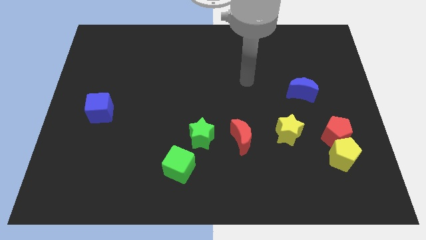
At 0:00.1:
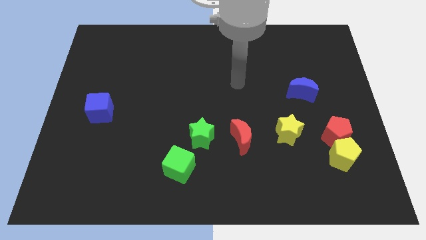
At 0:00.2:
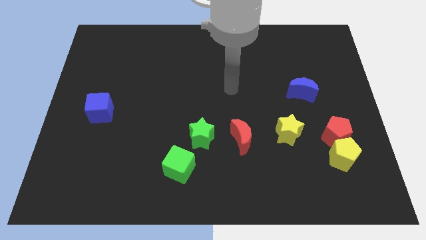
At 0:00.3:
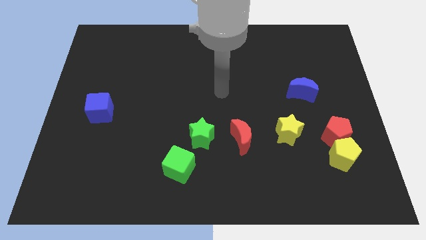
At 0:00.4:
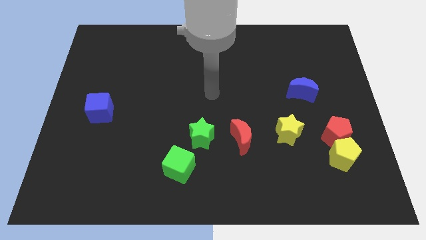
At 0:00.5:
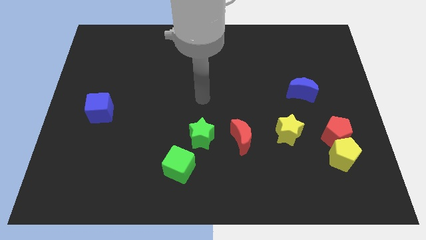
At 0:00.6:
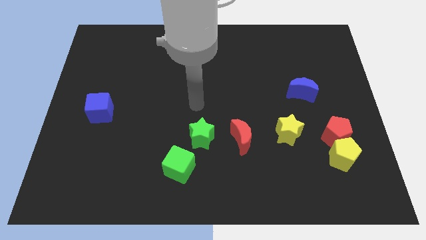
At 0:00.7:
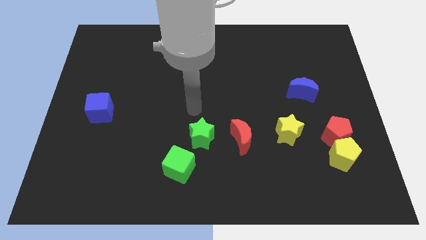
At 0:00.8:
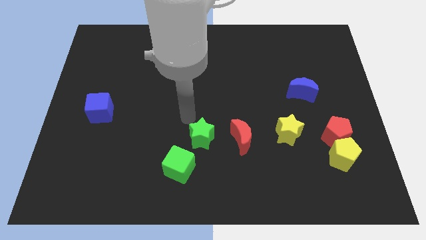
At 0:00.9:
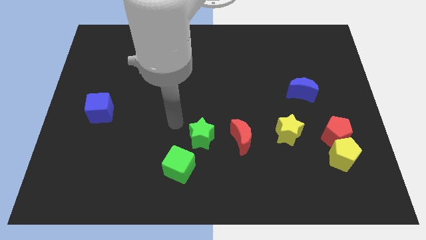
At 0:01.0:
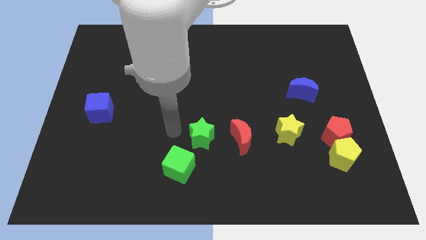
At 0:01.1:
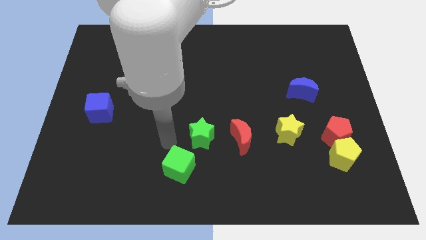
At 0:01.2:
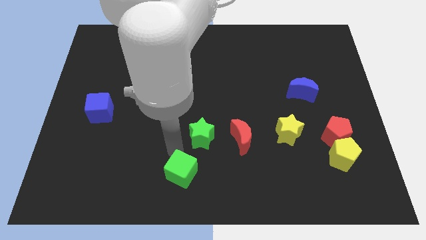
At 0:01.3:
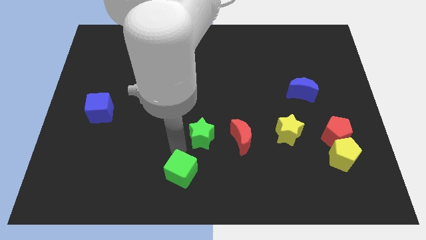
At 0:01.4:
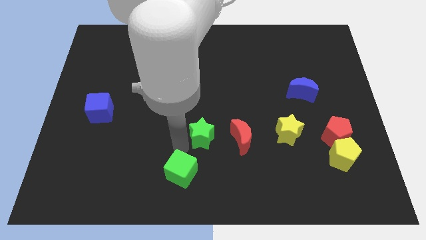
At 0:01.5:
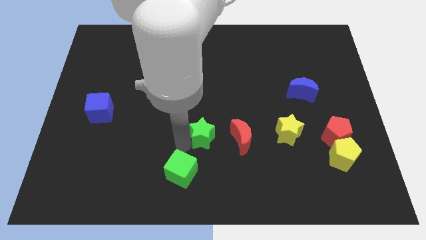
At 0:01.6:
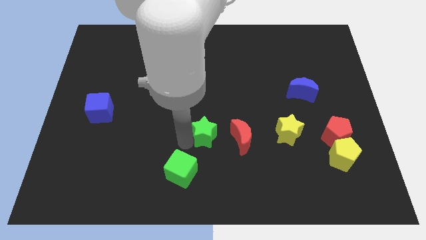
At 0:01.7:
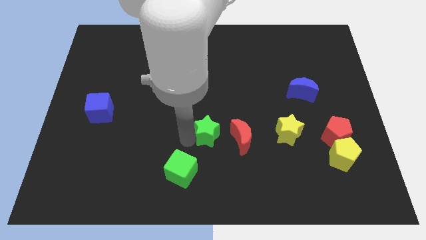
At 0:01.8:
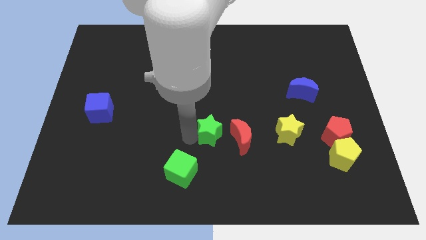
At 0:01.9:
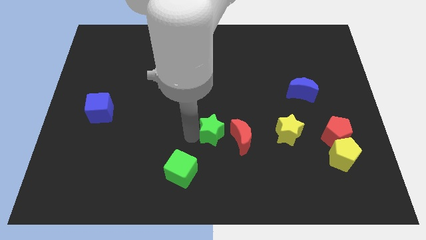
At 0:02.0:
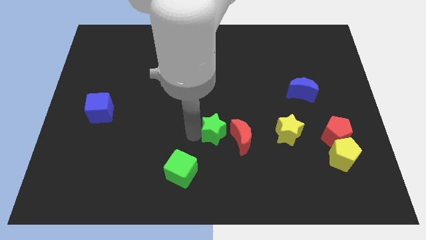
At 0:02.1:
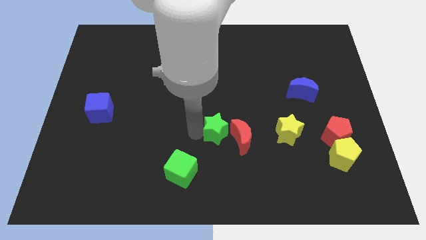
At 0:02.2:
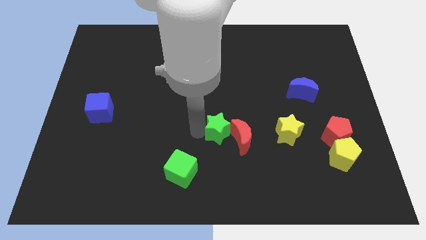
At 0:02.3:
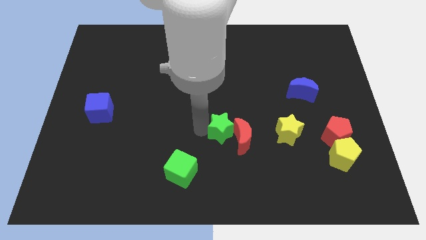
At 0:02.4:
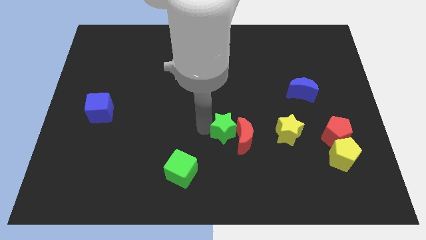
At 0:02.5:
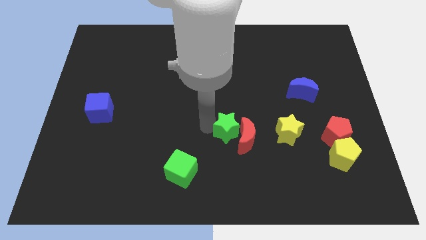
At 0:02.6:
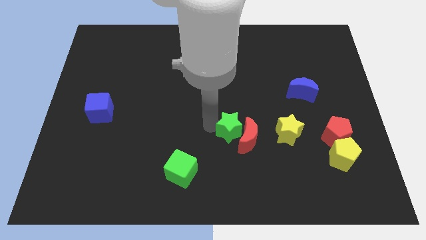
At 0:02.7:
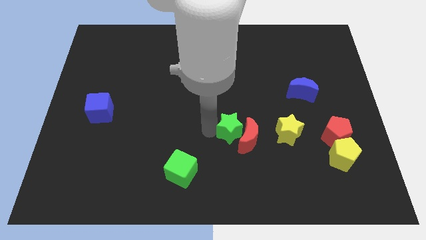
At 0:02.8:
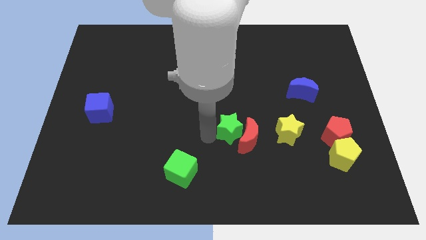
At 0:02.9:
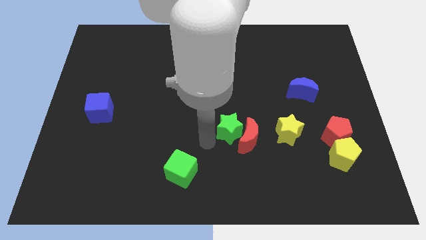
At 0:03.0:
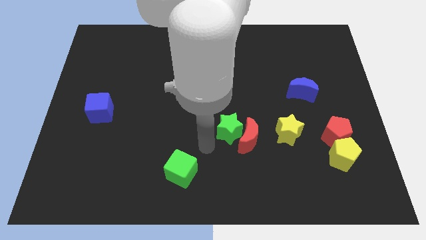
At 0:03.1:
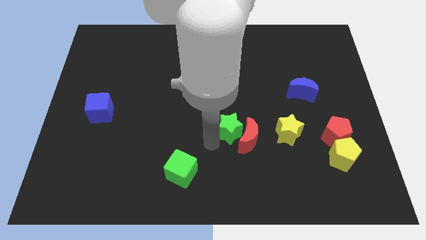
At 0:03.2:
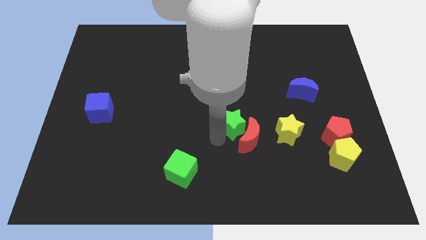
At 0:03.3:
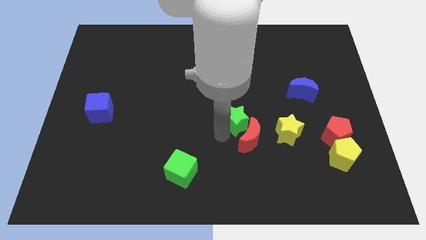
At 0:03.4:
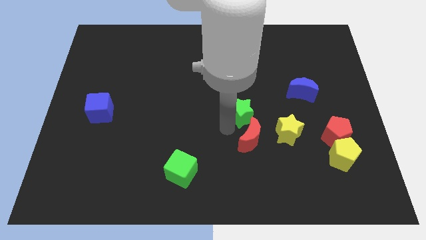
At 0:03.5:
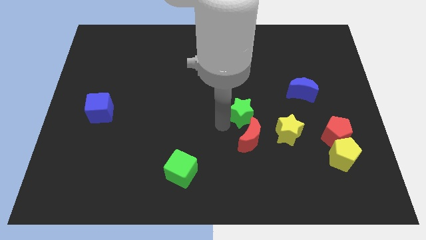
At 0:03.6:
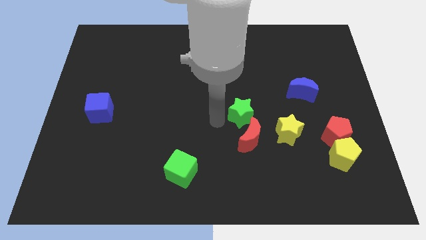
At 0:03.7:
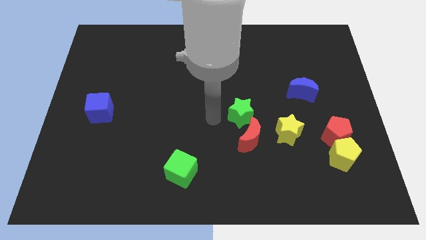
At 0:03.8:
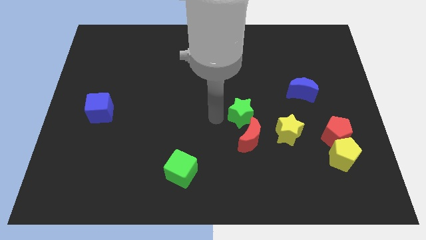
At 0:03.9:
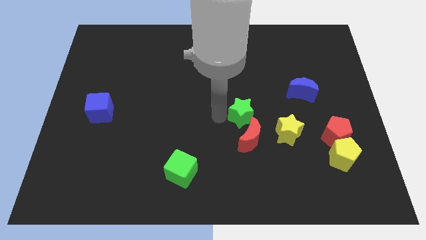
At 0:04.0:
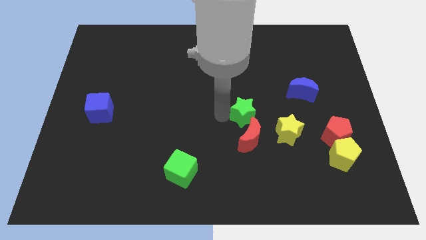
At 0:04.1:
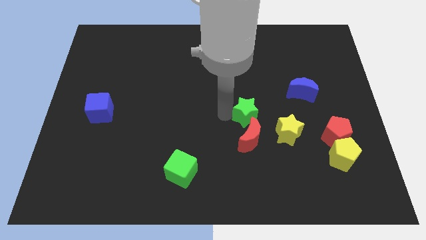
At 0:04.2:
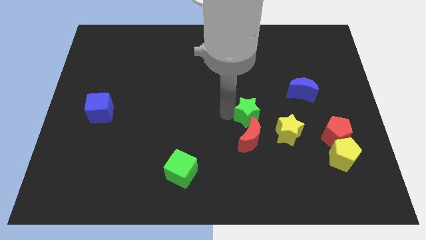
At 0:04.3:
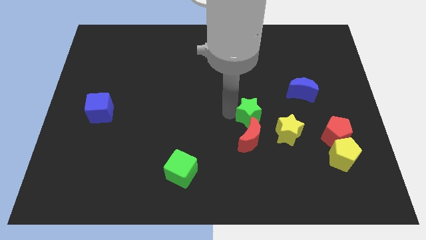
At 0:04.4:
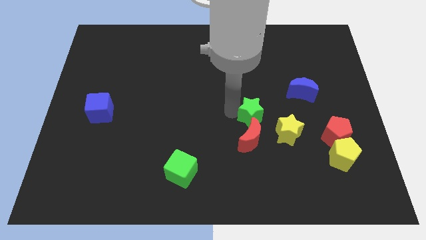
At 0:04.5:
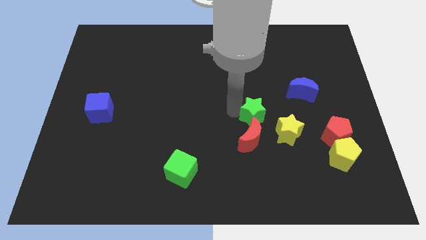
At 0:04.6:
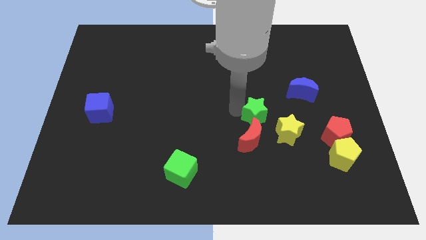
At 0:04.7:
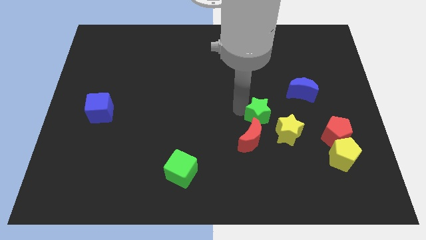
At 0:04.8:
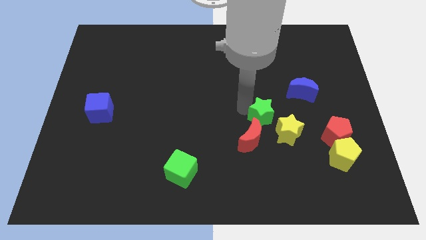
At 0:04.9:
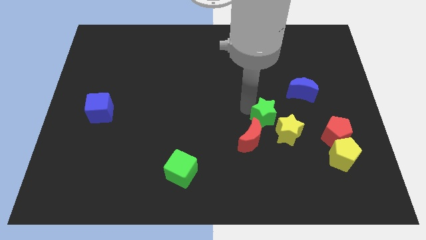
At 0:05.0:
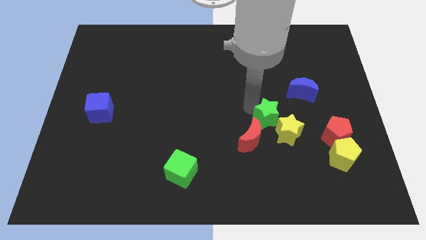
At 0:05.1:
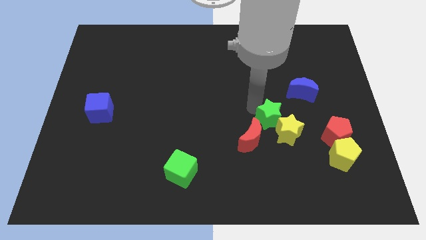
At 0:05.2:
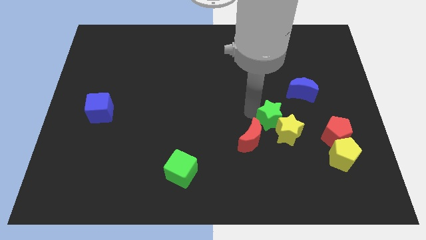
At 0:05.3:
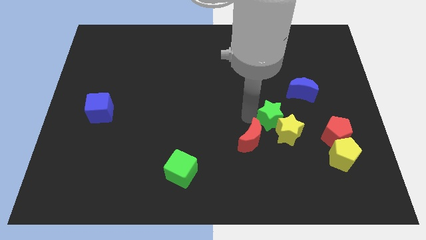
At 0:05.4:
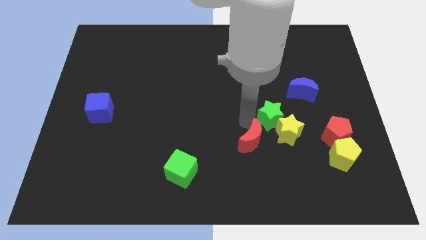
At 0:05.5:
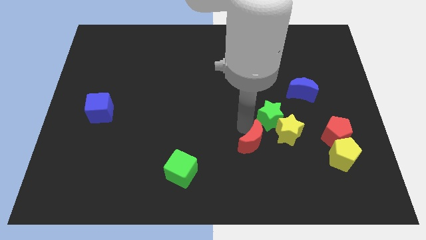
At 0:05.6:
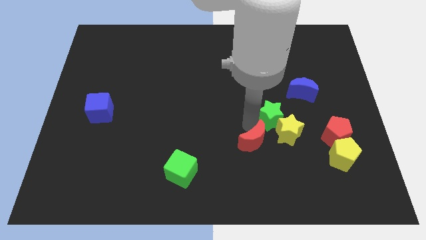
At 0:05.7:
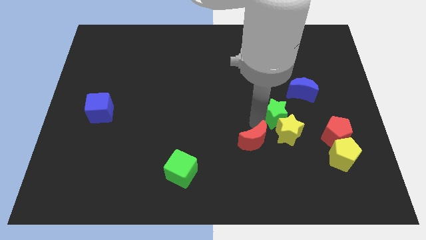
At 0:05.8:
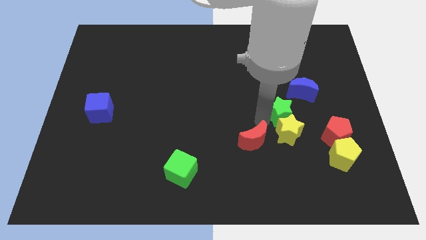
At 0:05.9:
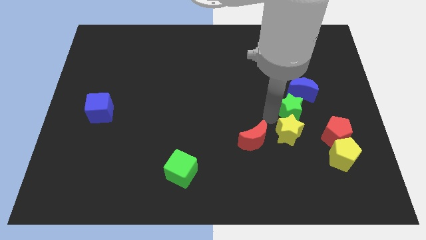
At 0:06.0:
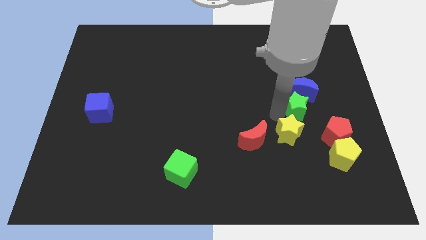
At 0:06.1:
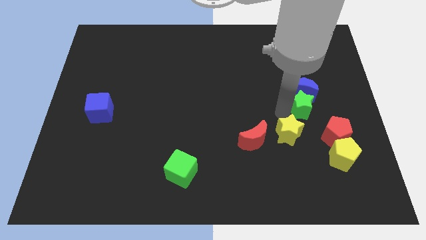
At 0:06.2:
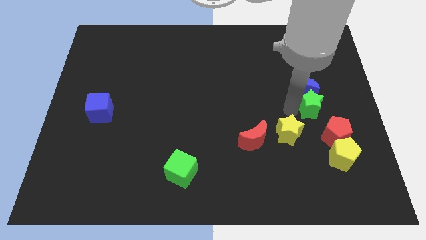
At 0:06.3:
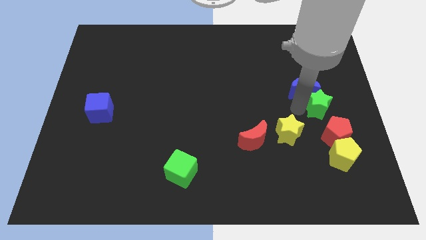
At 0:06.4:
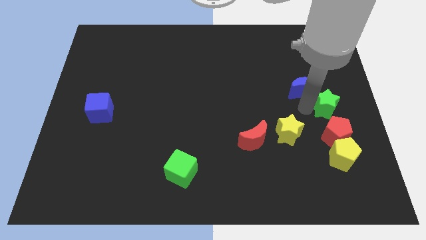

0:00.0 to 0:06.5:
push the green star to the center right
